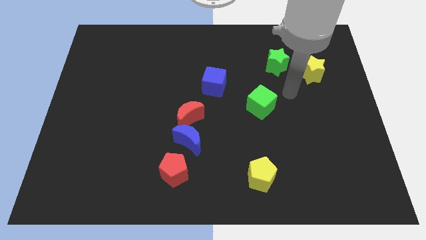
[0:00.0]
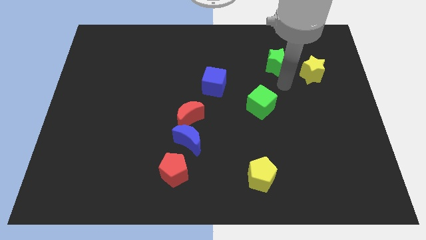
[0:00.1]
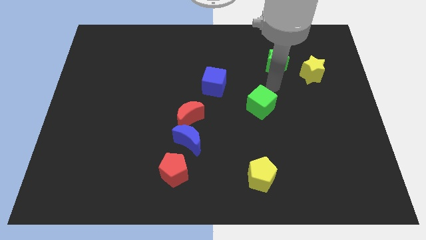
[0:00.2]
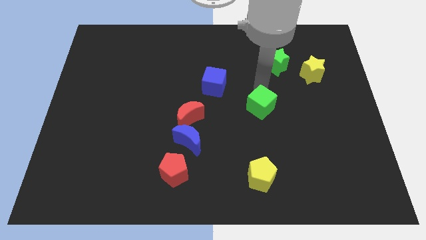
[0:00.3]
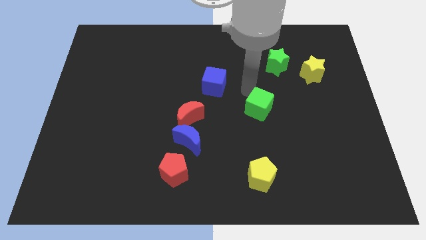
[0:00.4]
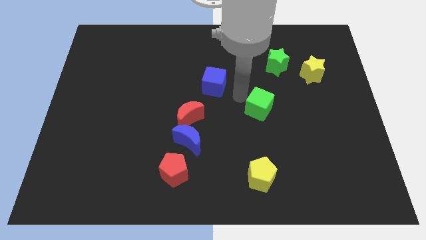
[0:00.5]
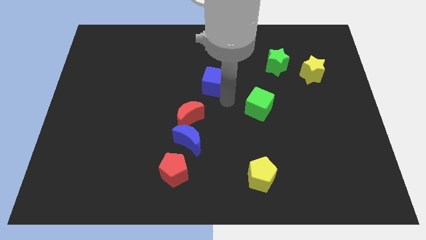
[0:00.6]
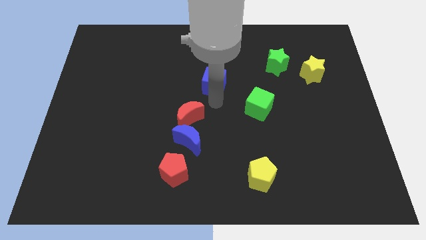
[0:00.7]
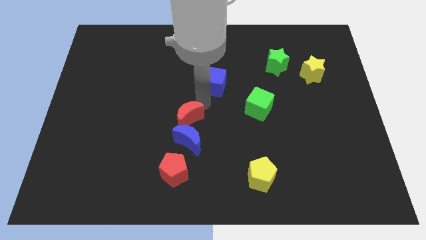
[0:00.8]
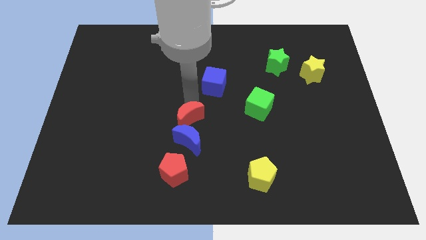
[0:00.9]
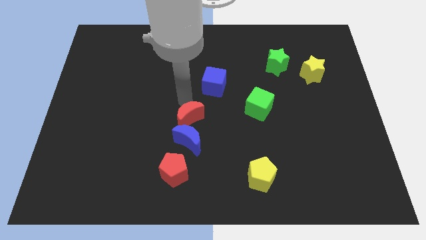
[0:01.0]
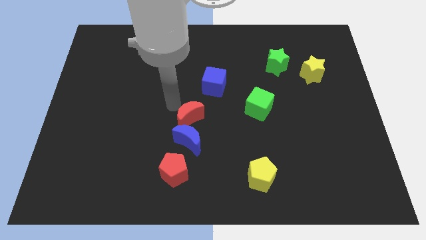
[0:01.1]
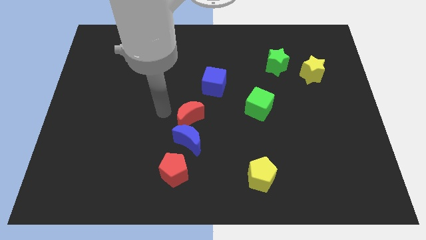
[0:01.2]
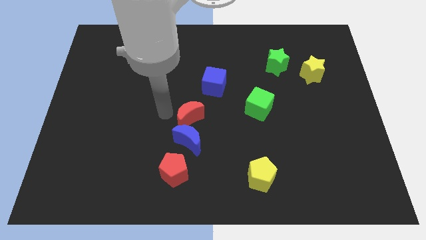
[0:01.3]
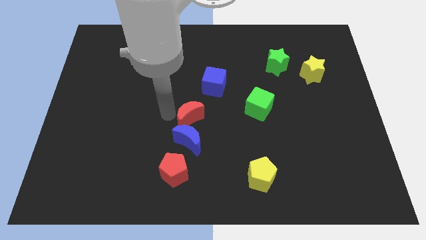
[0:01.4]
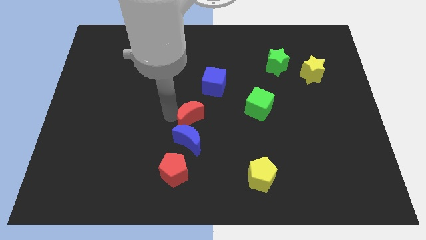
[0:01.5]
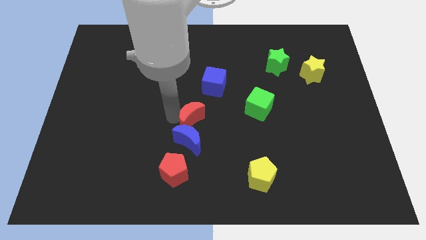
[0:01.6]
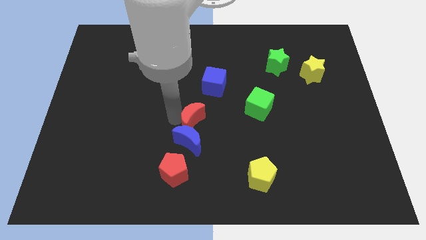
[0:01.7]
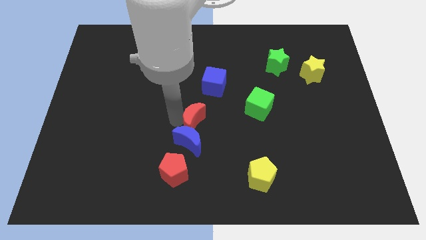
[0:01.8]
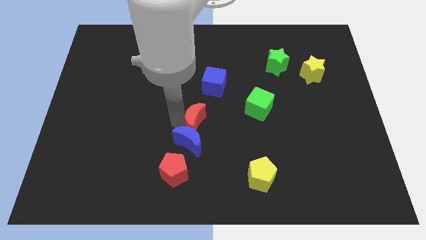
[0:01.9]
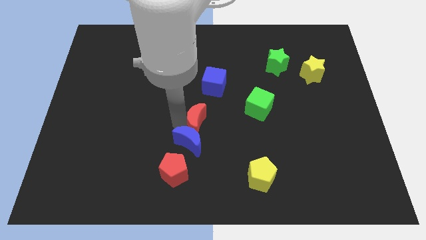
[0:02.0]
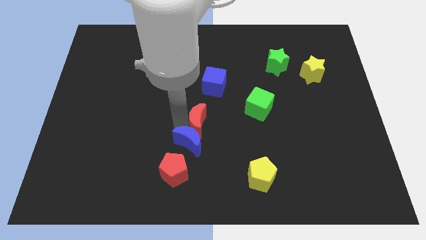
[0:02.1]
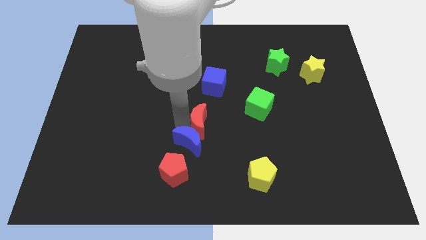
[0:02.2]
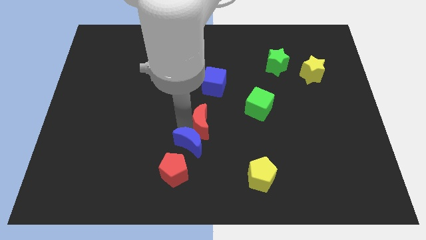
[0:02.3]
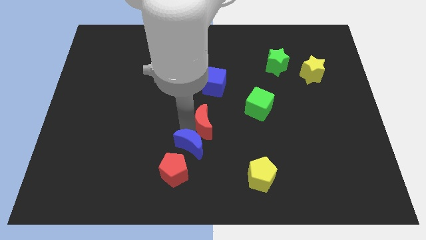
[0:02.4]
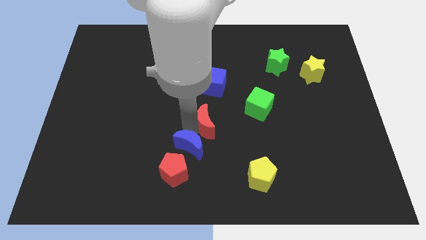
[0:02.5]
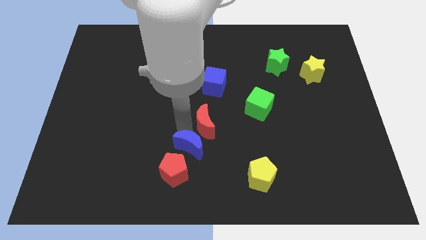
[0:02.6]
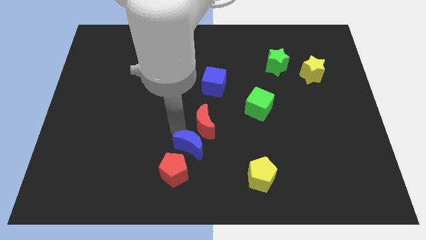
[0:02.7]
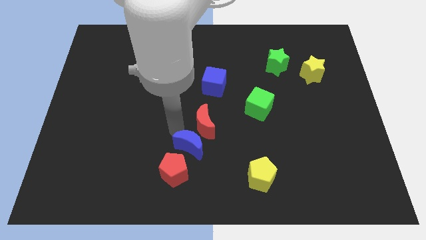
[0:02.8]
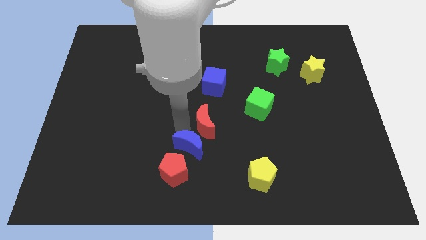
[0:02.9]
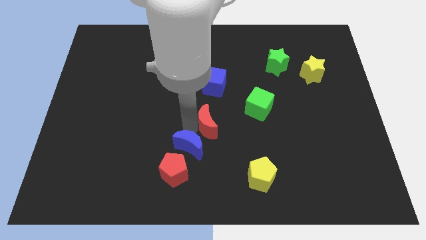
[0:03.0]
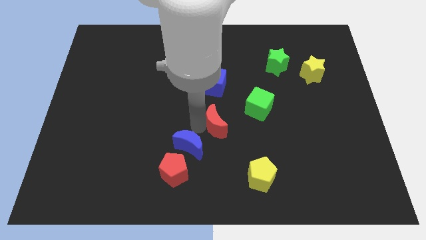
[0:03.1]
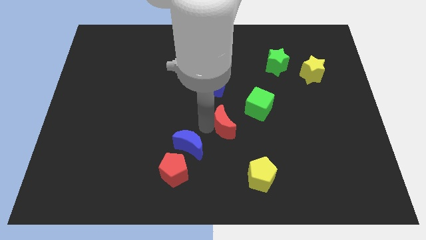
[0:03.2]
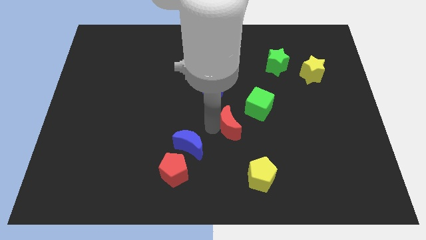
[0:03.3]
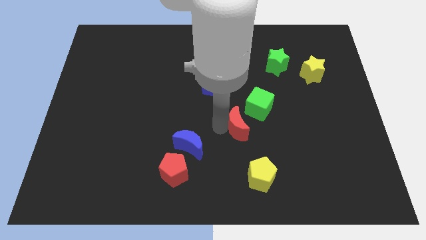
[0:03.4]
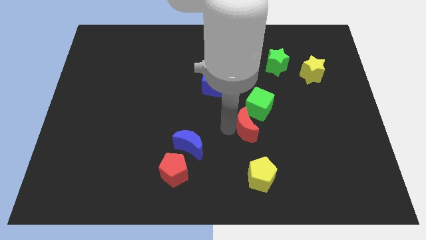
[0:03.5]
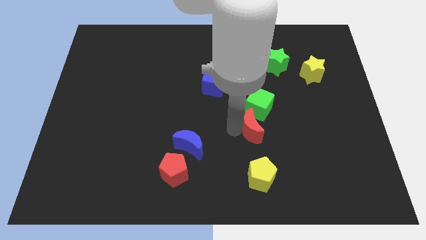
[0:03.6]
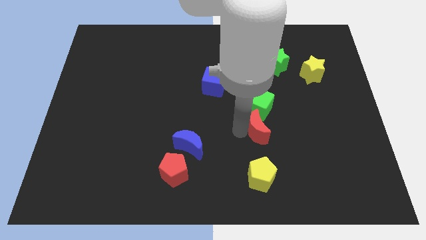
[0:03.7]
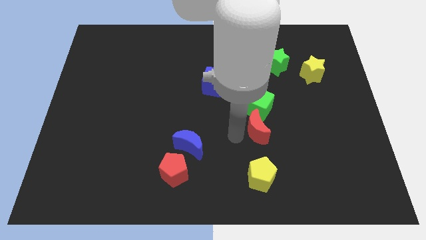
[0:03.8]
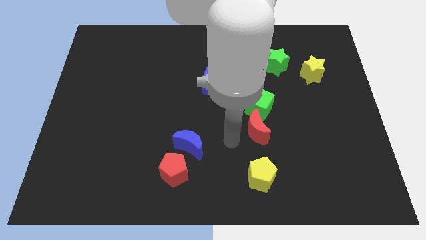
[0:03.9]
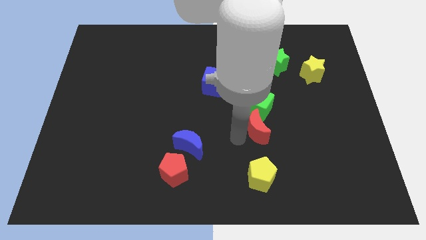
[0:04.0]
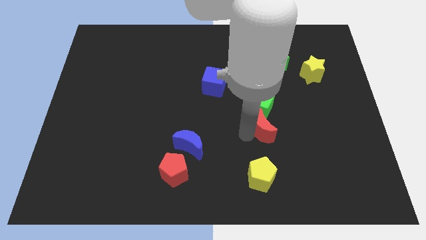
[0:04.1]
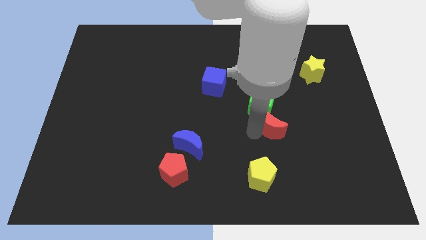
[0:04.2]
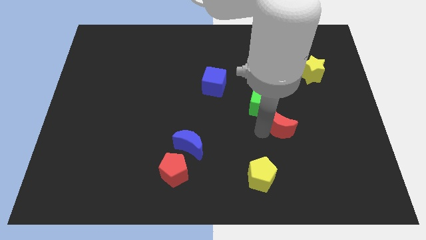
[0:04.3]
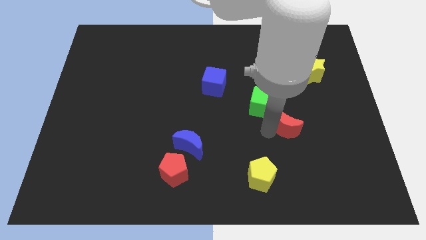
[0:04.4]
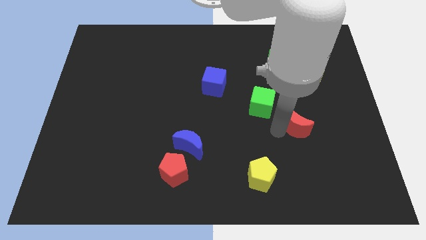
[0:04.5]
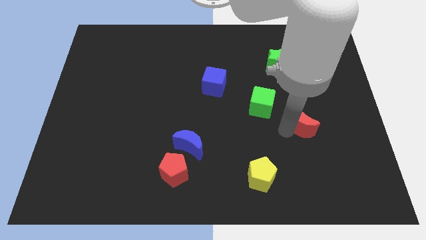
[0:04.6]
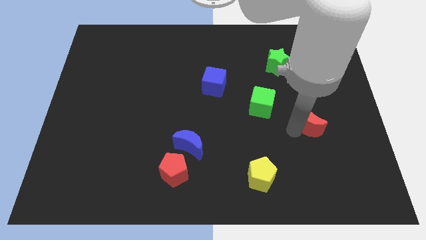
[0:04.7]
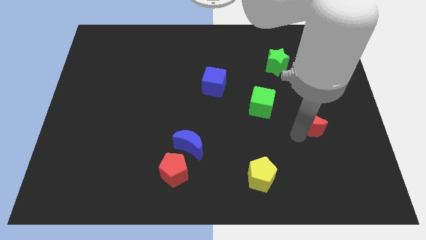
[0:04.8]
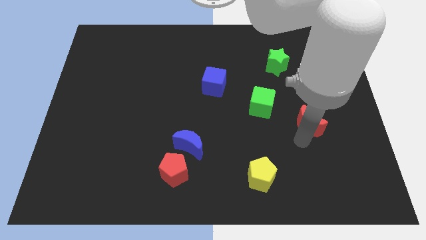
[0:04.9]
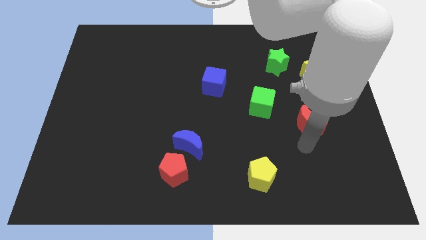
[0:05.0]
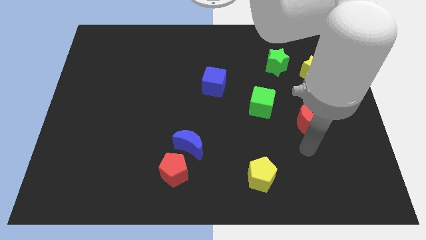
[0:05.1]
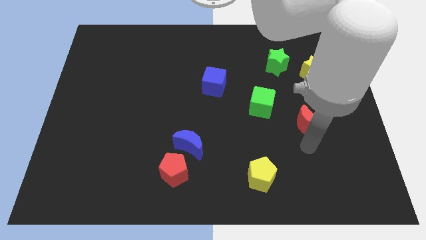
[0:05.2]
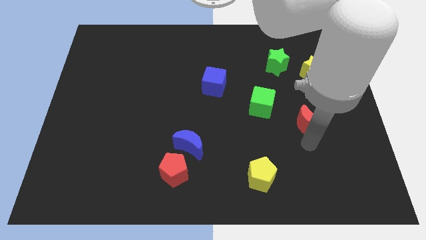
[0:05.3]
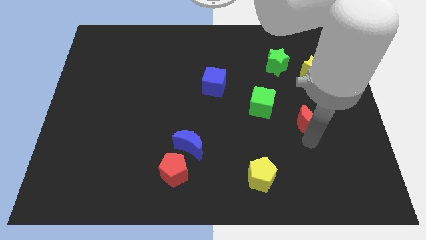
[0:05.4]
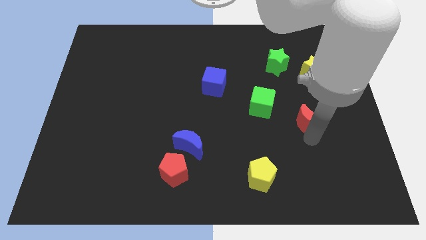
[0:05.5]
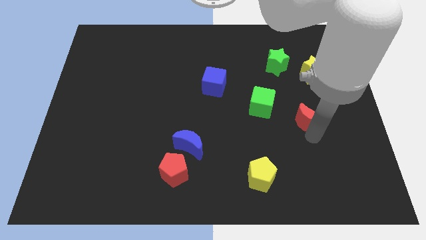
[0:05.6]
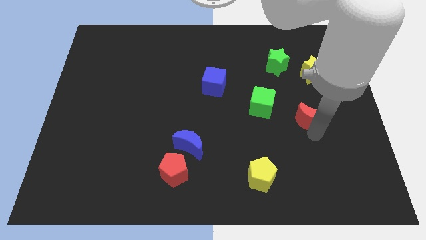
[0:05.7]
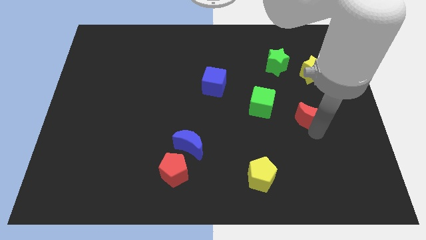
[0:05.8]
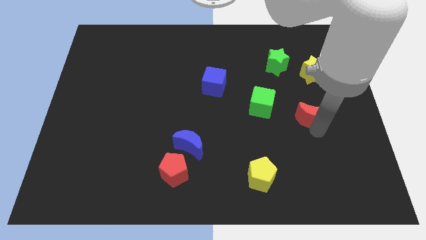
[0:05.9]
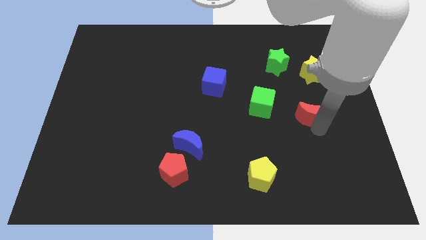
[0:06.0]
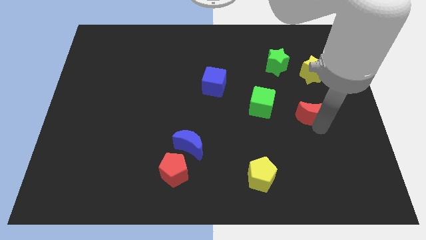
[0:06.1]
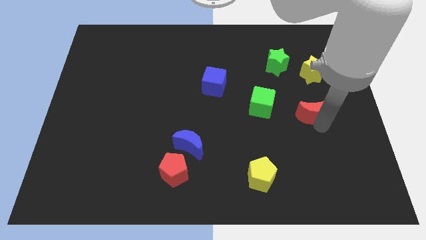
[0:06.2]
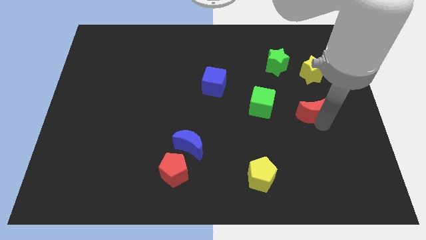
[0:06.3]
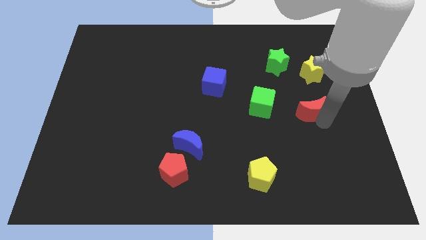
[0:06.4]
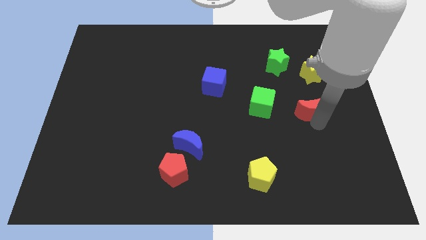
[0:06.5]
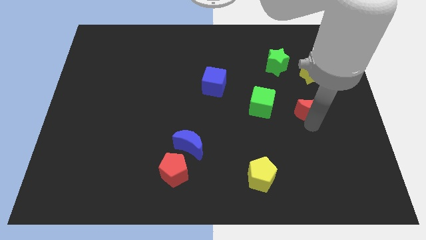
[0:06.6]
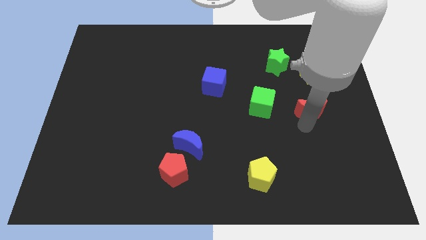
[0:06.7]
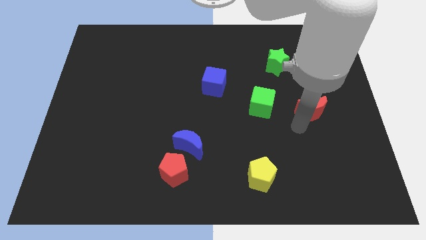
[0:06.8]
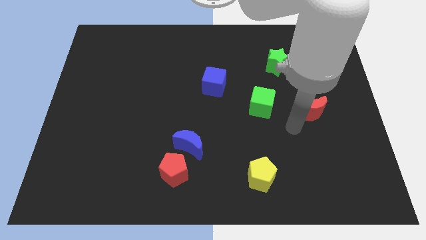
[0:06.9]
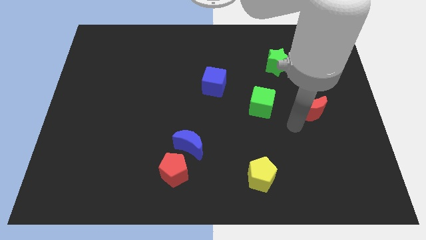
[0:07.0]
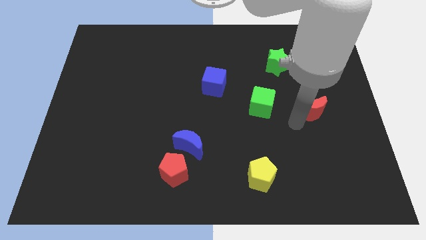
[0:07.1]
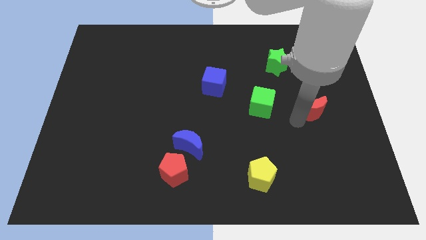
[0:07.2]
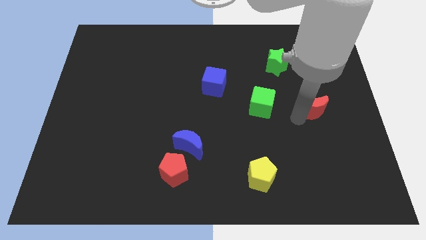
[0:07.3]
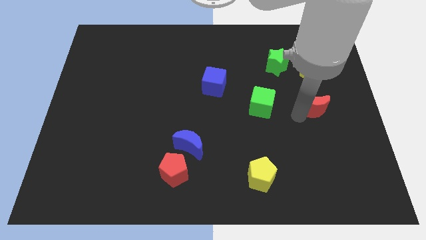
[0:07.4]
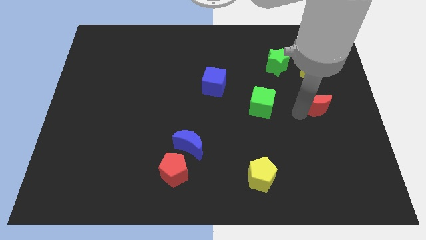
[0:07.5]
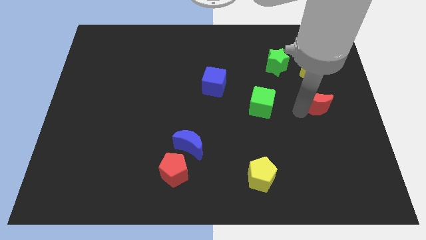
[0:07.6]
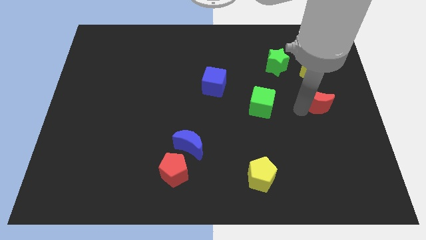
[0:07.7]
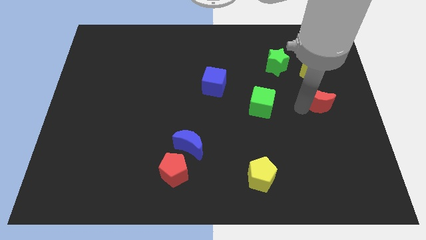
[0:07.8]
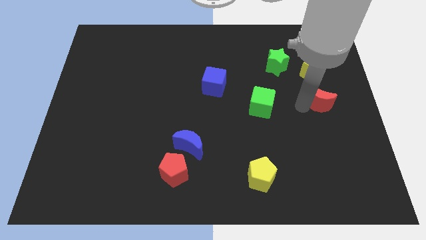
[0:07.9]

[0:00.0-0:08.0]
move the red moon to the right side
